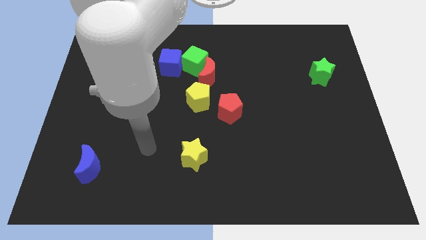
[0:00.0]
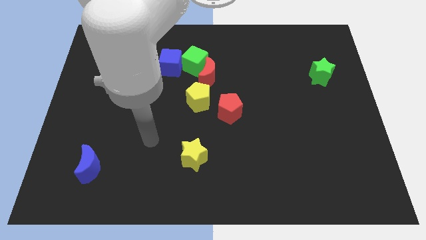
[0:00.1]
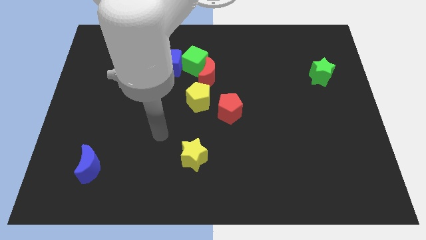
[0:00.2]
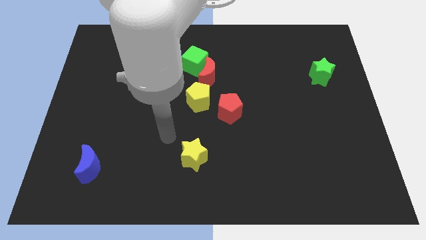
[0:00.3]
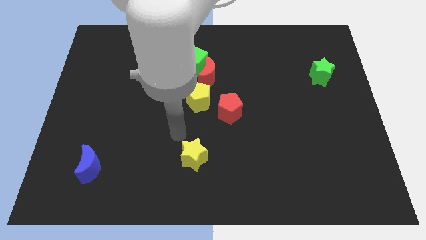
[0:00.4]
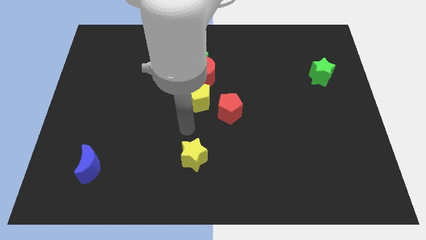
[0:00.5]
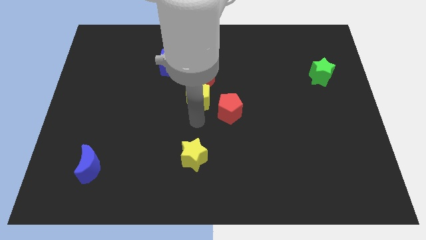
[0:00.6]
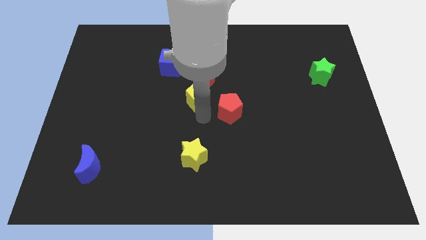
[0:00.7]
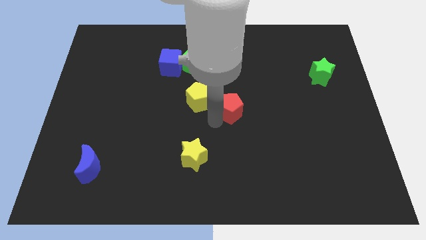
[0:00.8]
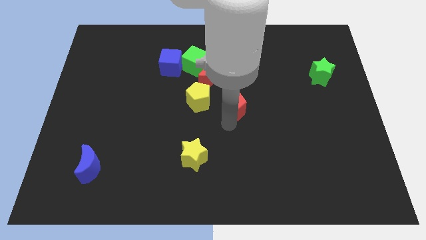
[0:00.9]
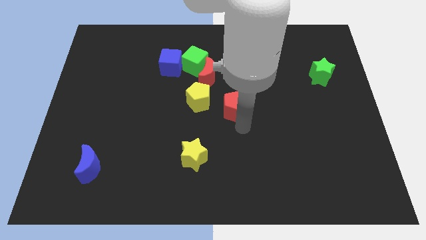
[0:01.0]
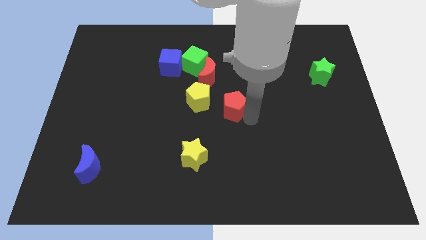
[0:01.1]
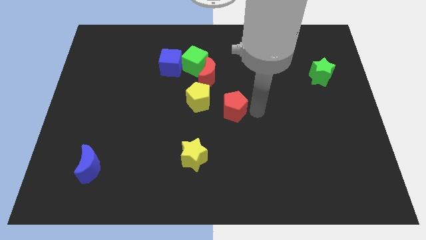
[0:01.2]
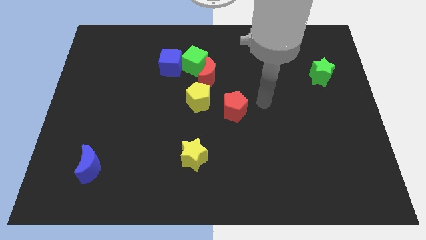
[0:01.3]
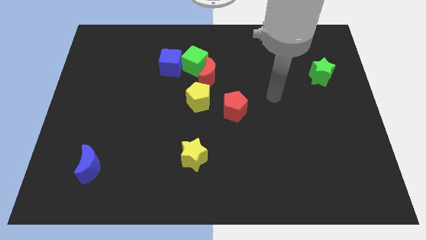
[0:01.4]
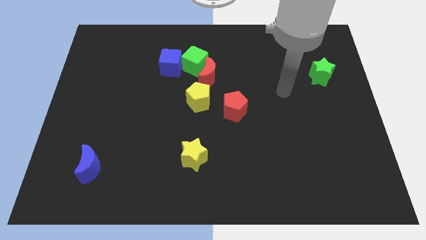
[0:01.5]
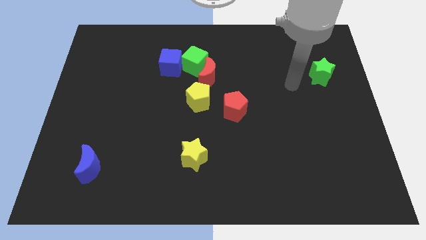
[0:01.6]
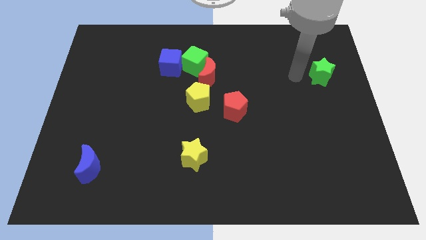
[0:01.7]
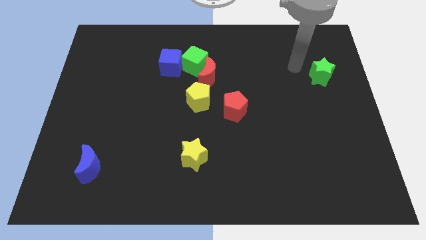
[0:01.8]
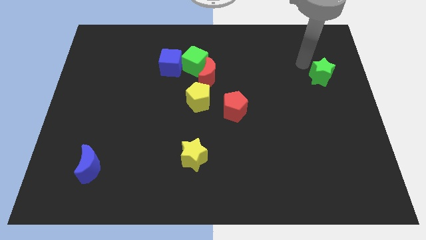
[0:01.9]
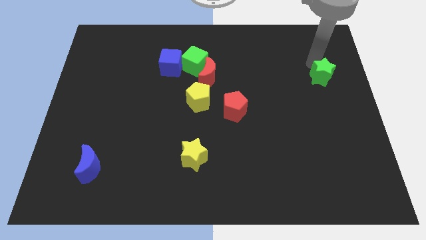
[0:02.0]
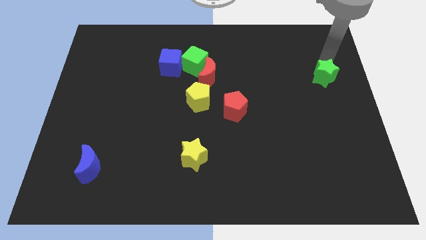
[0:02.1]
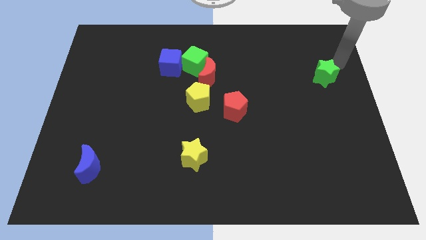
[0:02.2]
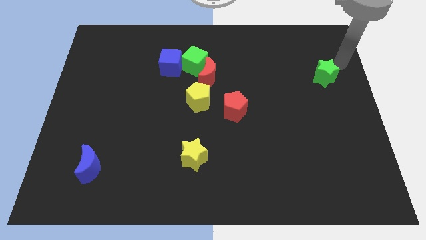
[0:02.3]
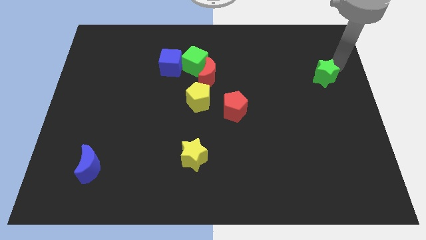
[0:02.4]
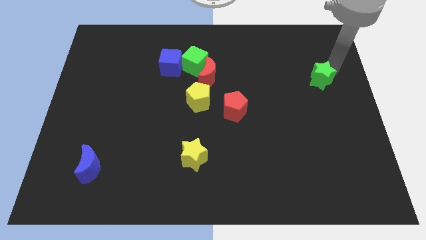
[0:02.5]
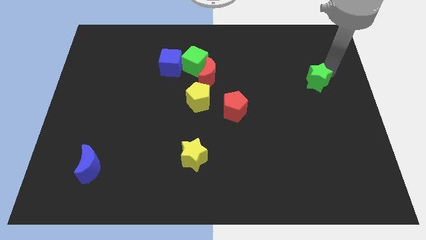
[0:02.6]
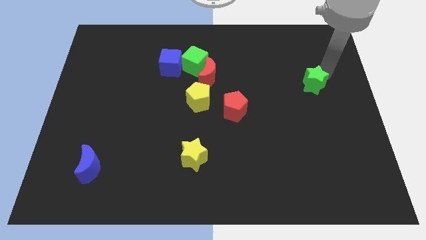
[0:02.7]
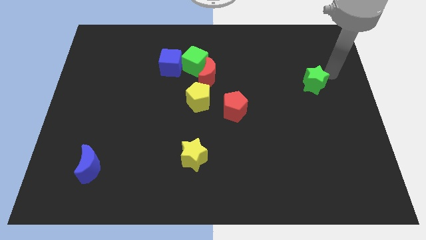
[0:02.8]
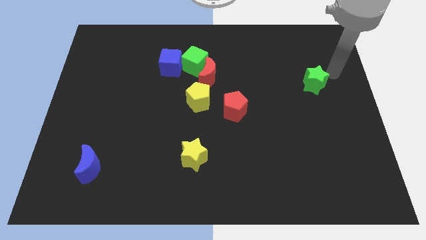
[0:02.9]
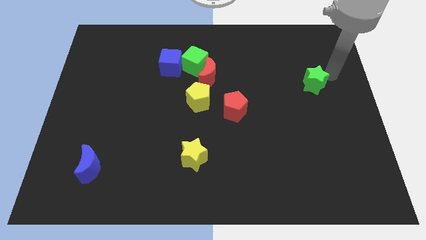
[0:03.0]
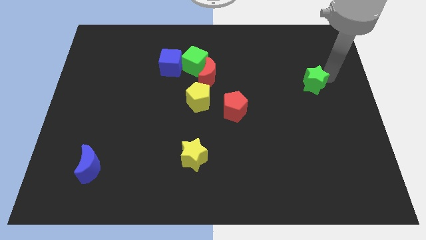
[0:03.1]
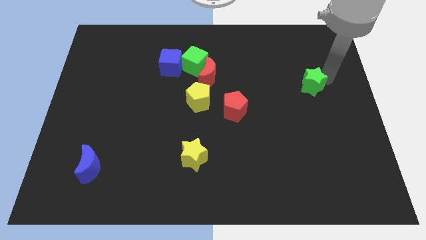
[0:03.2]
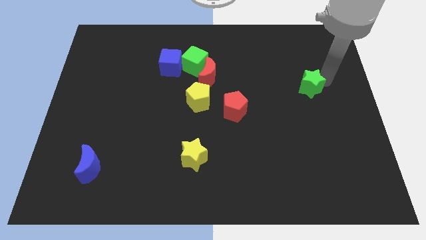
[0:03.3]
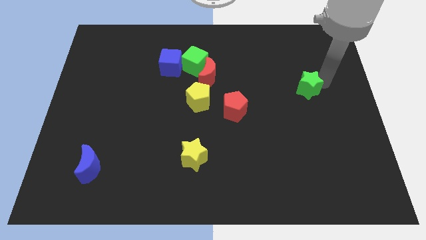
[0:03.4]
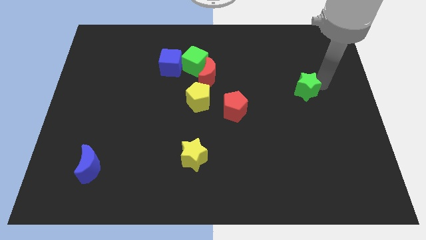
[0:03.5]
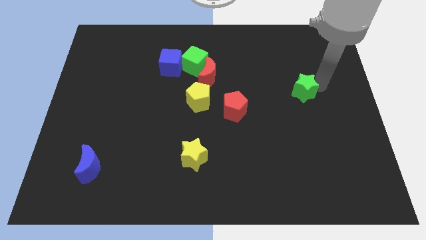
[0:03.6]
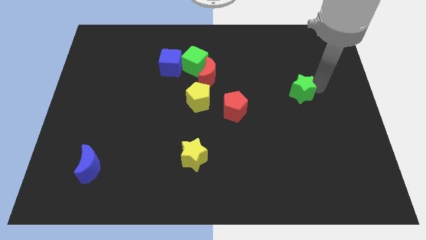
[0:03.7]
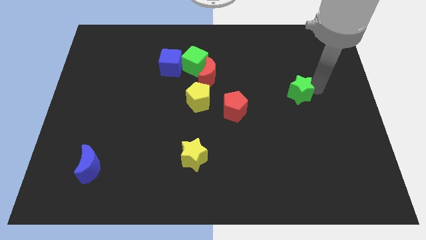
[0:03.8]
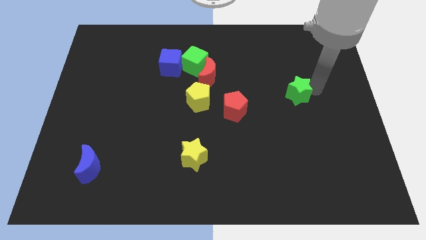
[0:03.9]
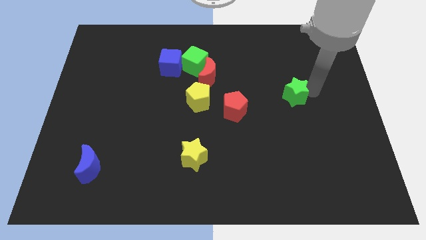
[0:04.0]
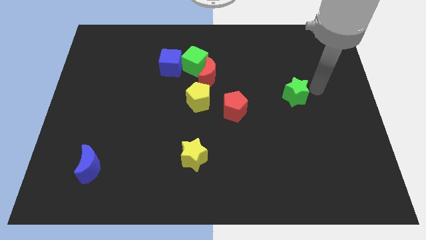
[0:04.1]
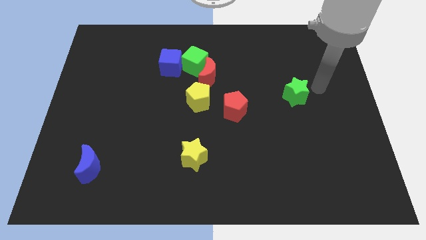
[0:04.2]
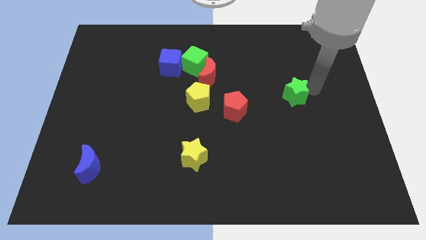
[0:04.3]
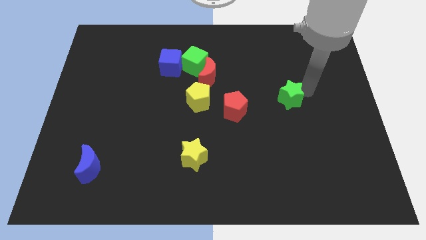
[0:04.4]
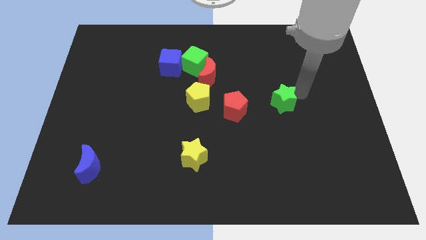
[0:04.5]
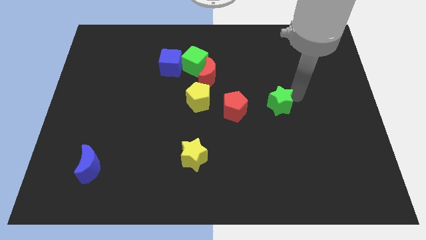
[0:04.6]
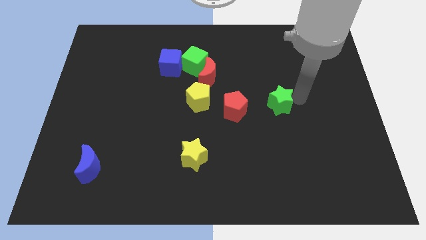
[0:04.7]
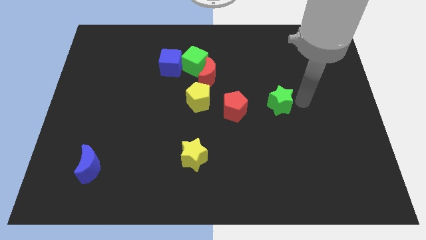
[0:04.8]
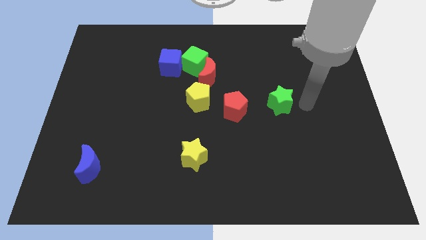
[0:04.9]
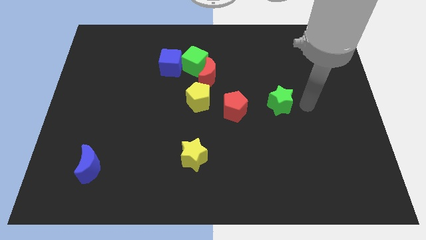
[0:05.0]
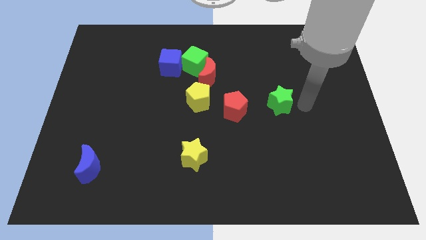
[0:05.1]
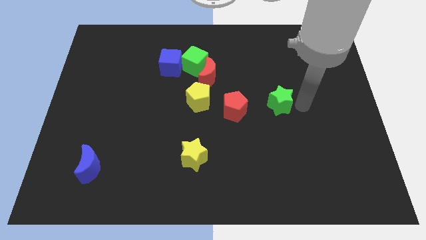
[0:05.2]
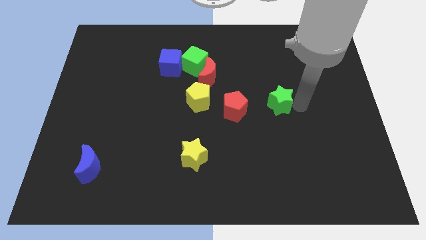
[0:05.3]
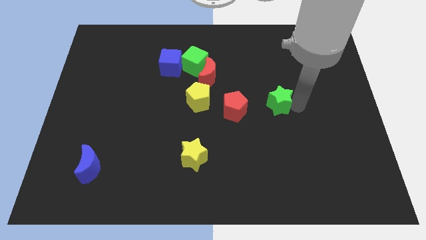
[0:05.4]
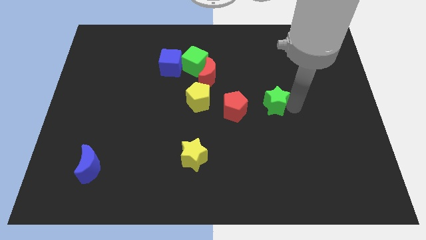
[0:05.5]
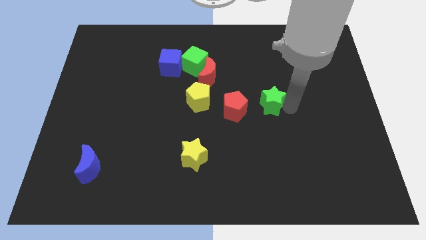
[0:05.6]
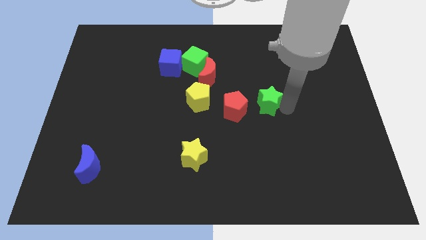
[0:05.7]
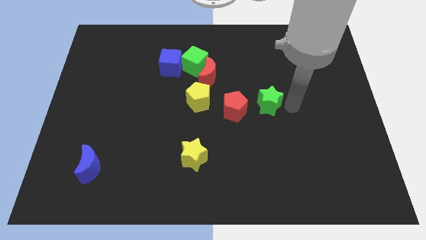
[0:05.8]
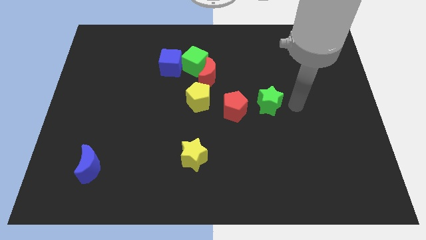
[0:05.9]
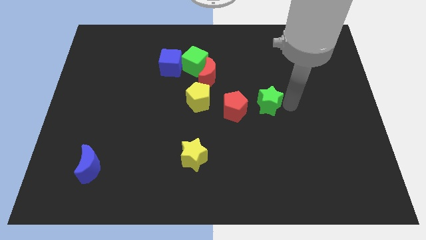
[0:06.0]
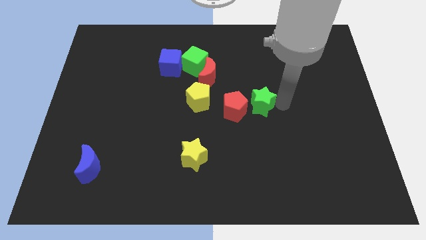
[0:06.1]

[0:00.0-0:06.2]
push the green star just right of the yellow pentagon
